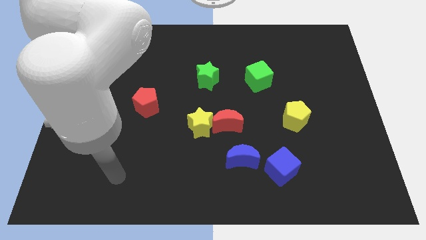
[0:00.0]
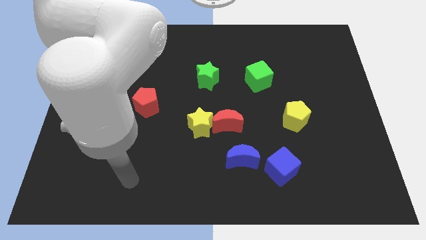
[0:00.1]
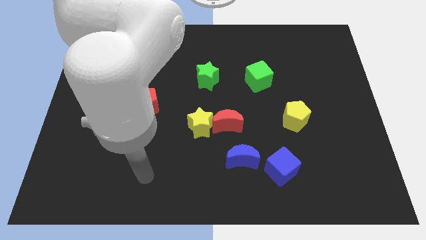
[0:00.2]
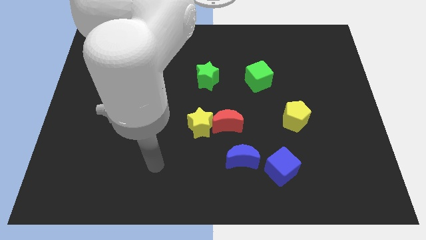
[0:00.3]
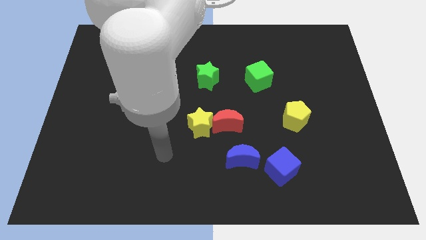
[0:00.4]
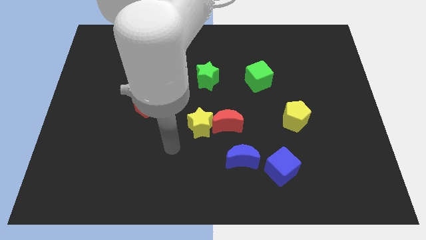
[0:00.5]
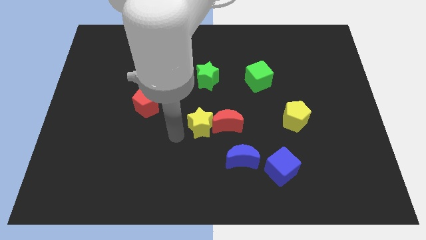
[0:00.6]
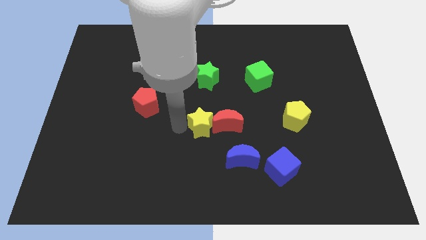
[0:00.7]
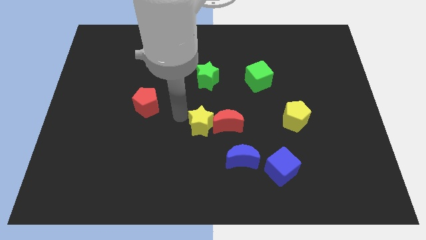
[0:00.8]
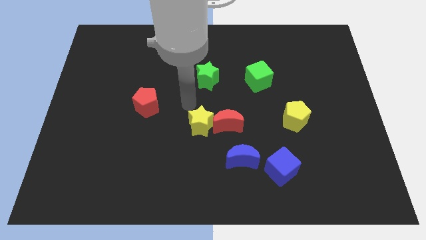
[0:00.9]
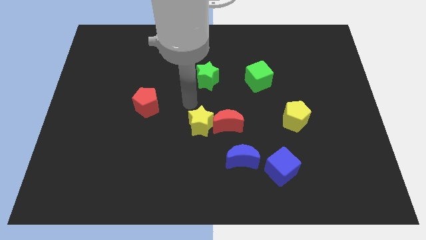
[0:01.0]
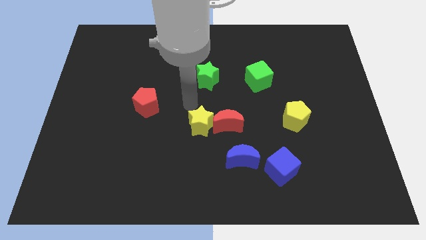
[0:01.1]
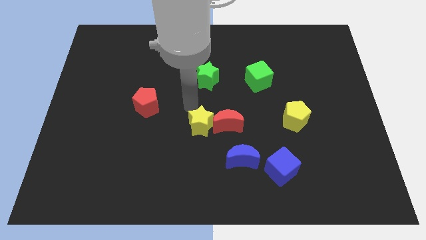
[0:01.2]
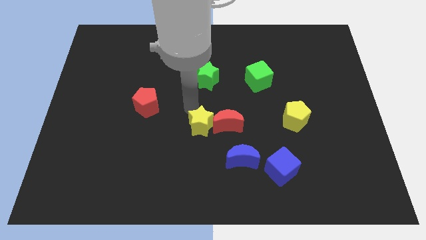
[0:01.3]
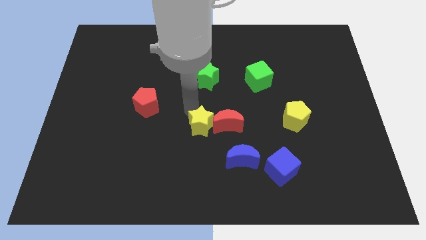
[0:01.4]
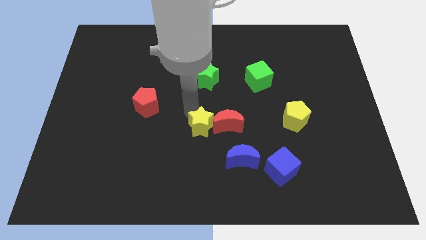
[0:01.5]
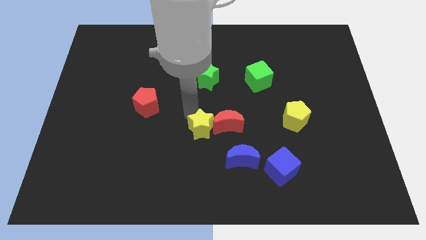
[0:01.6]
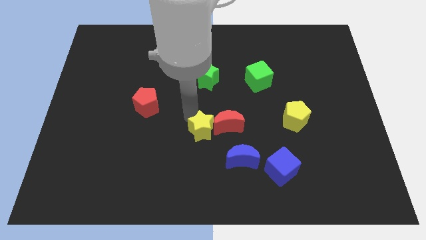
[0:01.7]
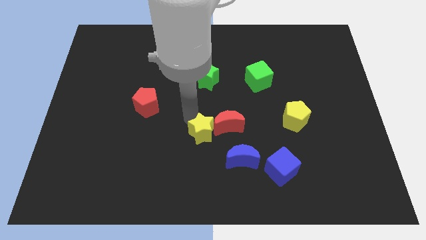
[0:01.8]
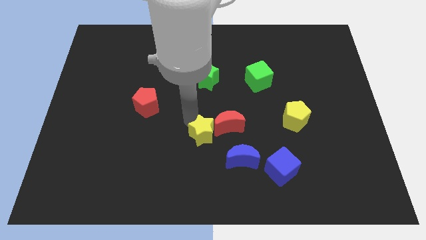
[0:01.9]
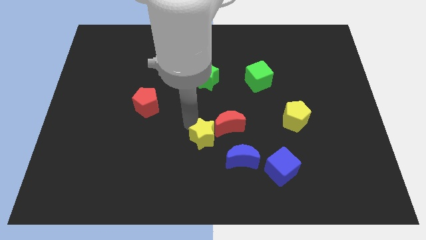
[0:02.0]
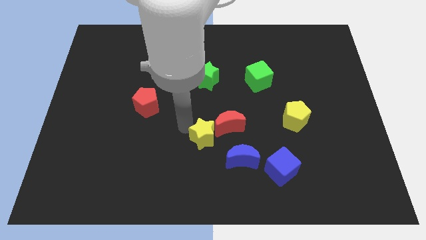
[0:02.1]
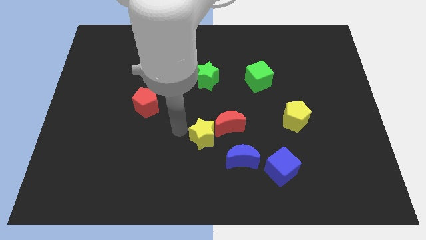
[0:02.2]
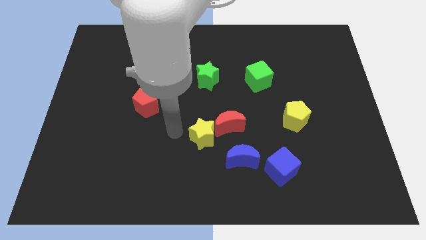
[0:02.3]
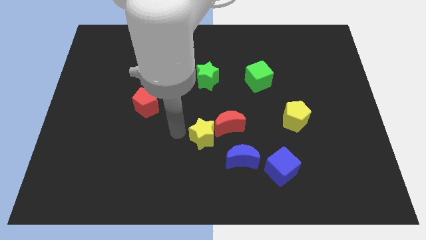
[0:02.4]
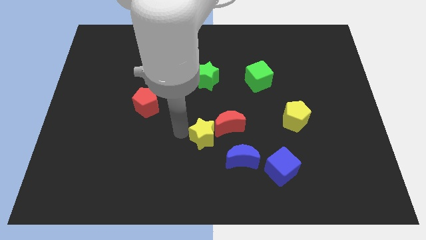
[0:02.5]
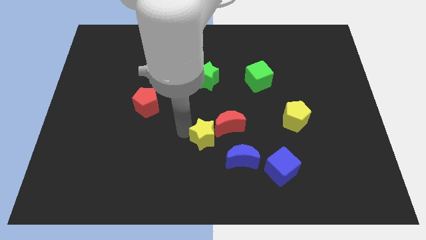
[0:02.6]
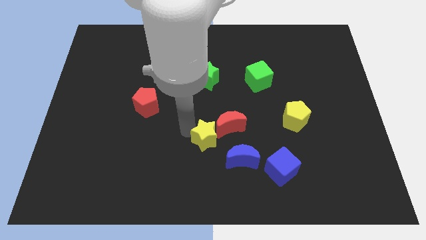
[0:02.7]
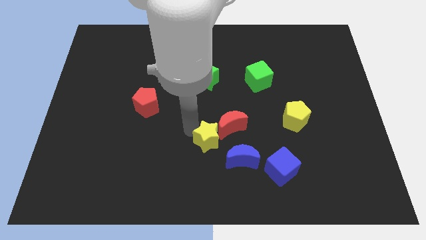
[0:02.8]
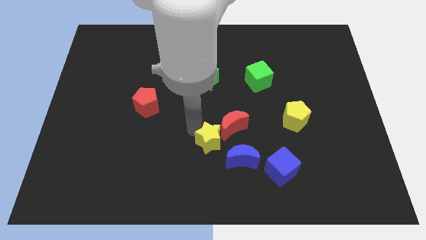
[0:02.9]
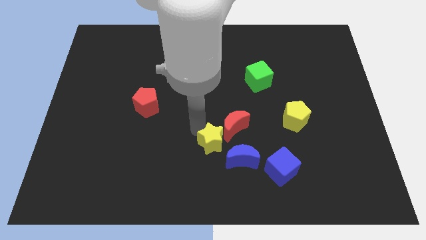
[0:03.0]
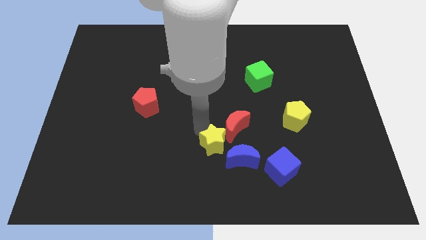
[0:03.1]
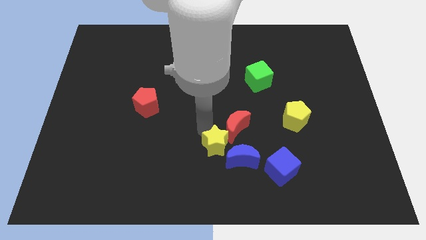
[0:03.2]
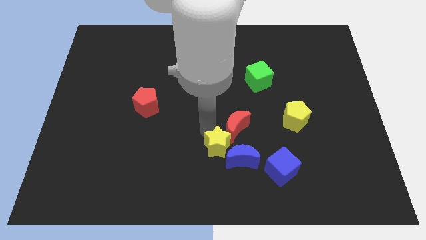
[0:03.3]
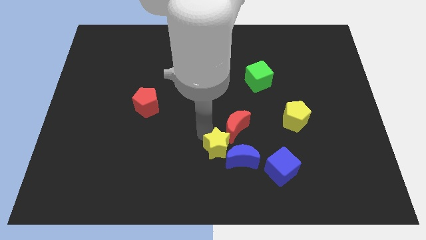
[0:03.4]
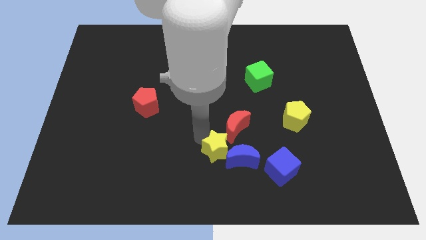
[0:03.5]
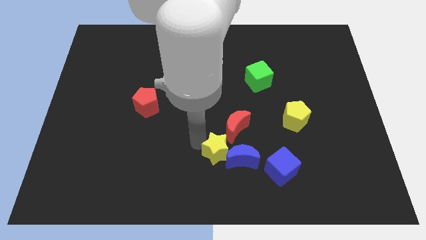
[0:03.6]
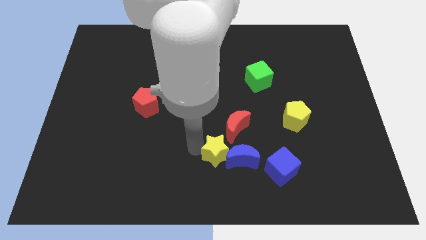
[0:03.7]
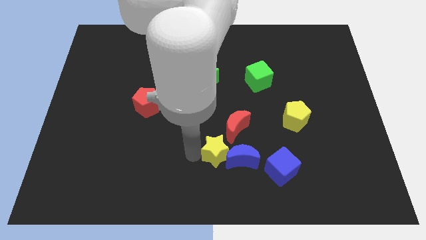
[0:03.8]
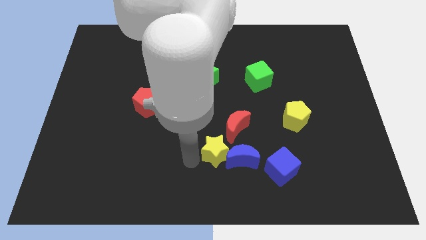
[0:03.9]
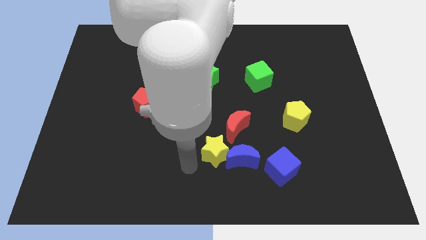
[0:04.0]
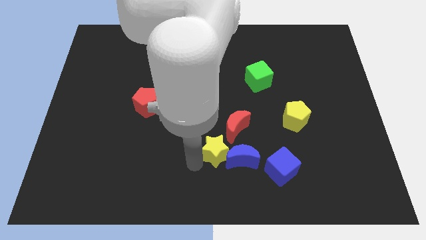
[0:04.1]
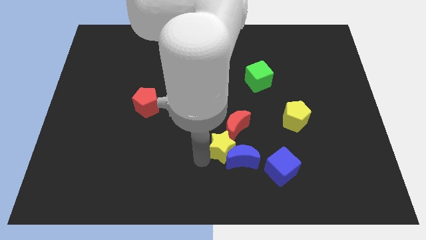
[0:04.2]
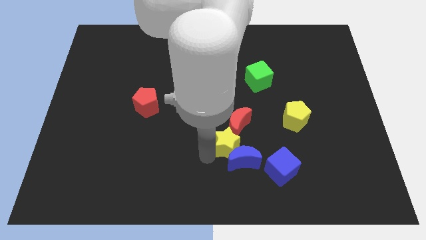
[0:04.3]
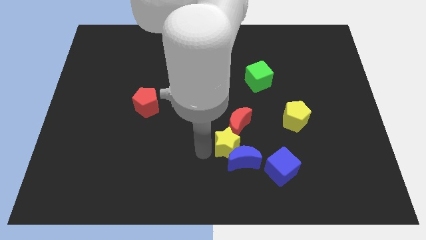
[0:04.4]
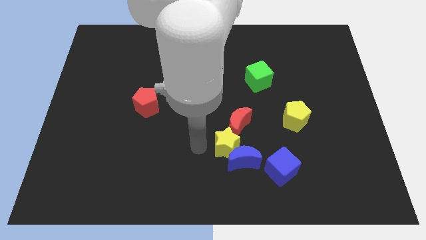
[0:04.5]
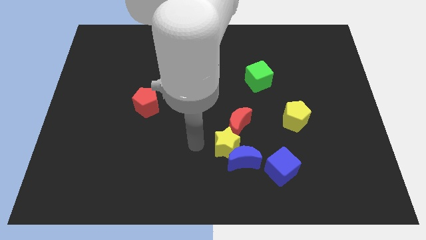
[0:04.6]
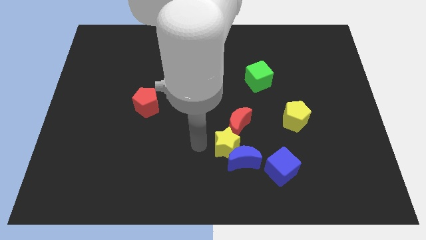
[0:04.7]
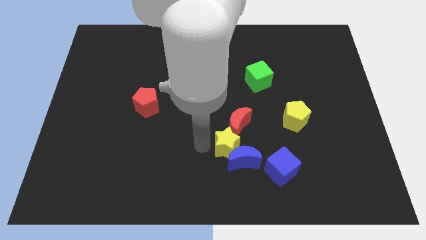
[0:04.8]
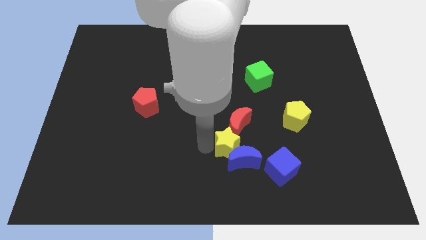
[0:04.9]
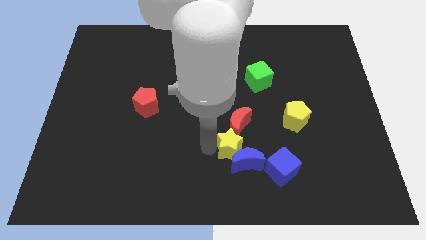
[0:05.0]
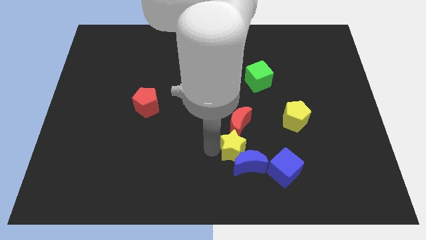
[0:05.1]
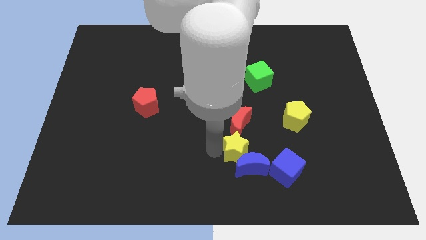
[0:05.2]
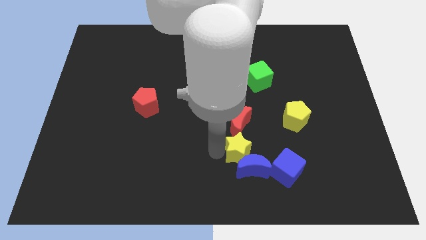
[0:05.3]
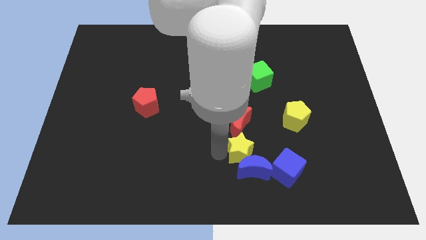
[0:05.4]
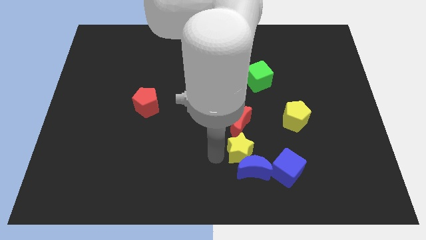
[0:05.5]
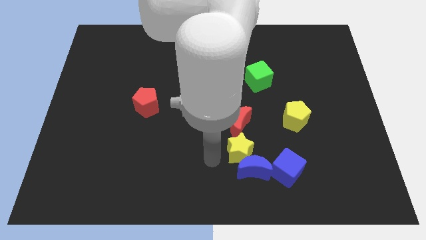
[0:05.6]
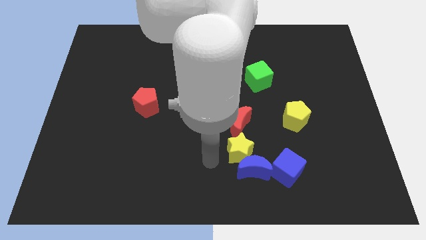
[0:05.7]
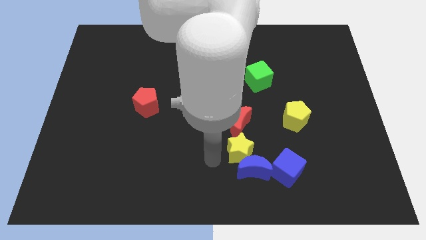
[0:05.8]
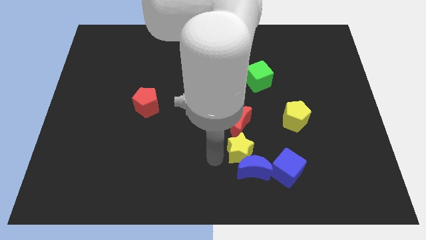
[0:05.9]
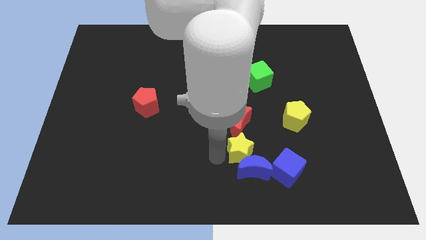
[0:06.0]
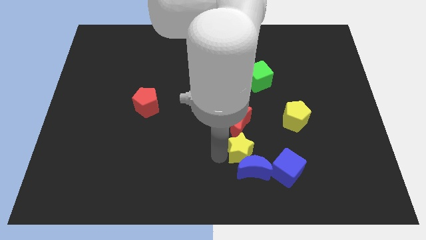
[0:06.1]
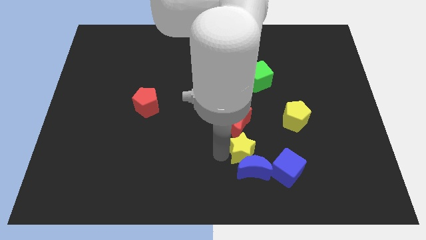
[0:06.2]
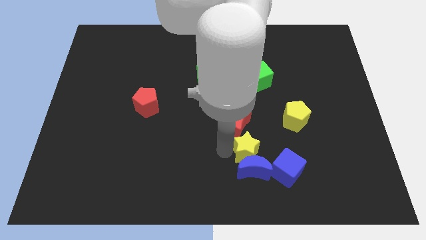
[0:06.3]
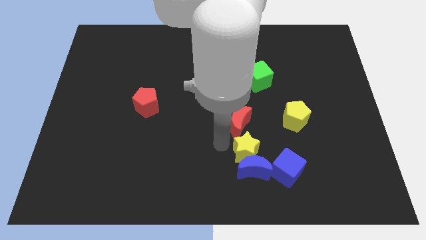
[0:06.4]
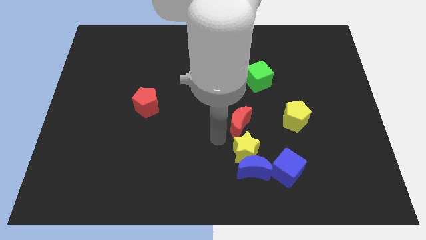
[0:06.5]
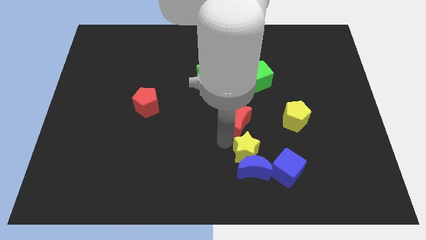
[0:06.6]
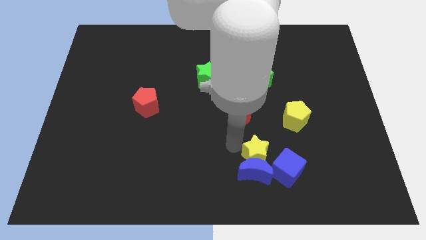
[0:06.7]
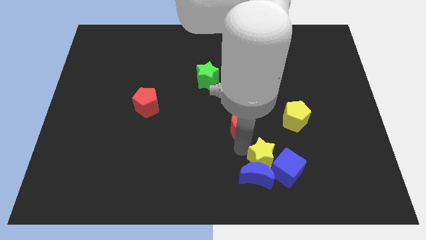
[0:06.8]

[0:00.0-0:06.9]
slide the yellow star next to the blue cube
